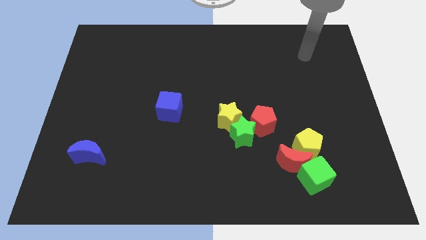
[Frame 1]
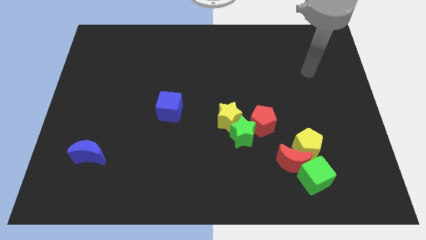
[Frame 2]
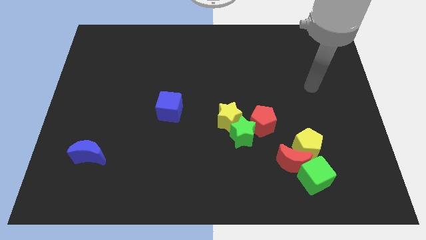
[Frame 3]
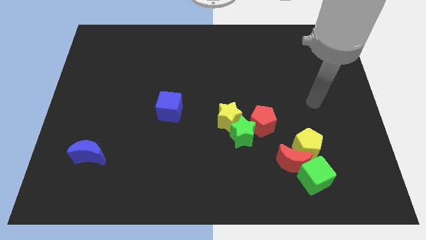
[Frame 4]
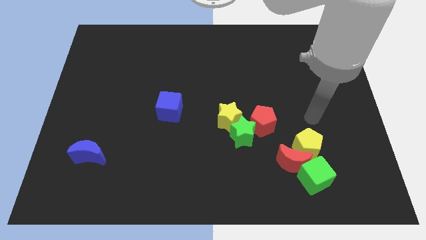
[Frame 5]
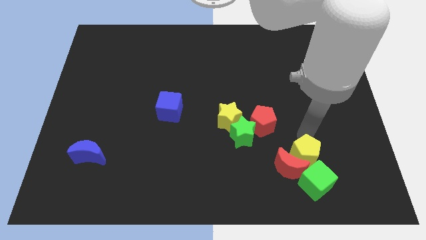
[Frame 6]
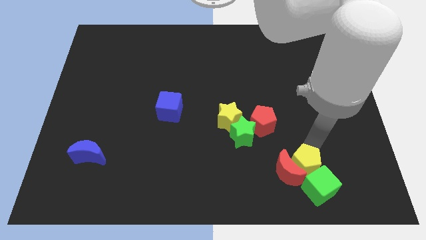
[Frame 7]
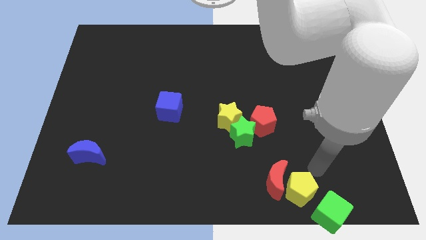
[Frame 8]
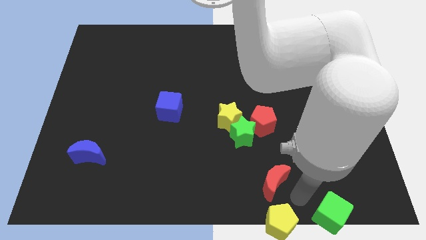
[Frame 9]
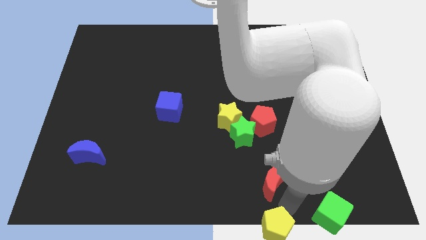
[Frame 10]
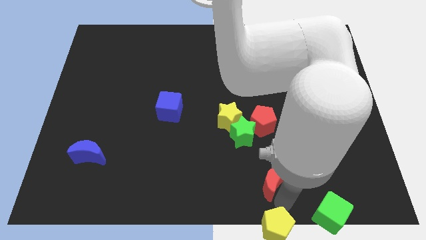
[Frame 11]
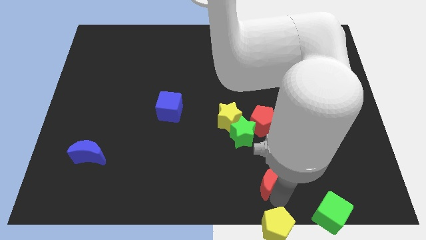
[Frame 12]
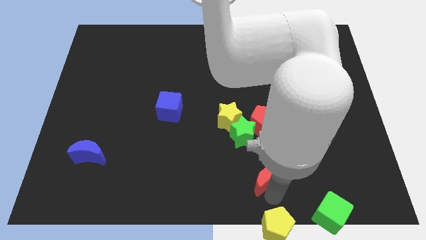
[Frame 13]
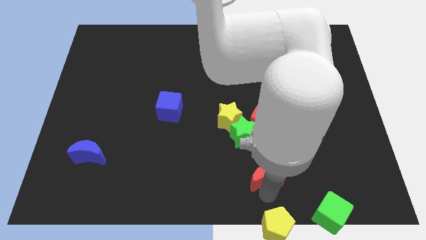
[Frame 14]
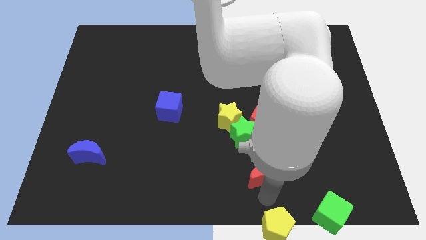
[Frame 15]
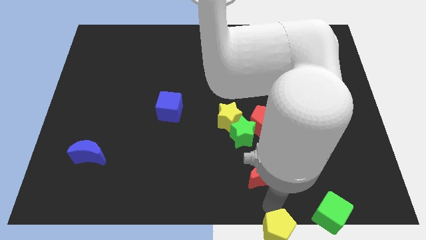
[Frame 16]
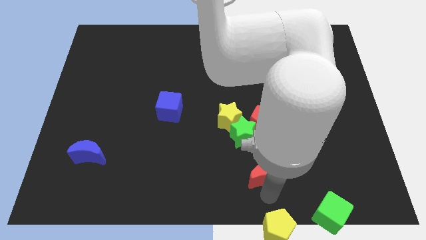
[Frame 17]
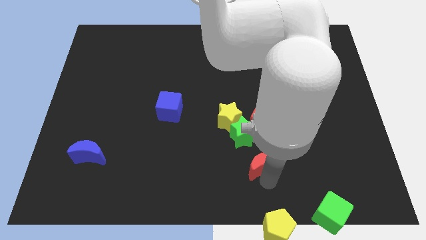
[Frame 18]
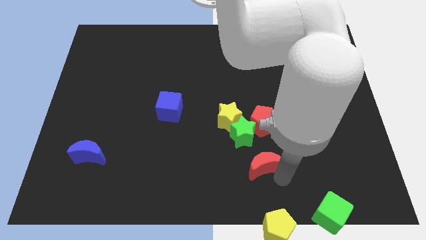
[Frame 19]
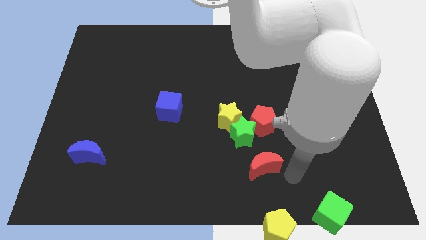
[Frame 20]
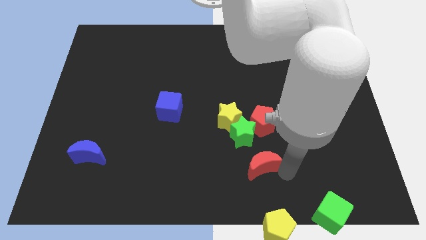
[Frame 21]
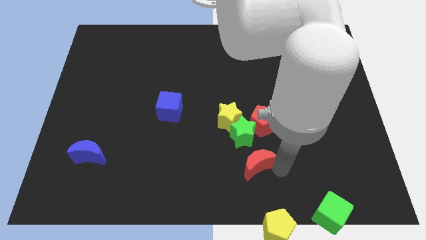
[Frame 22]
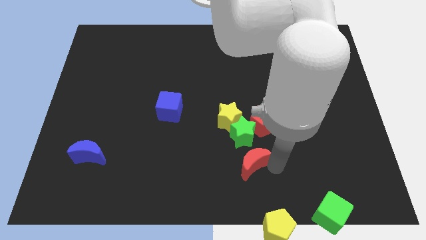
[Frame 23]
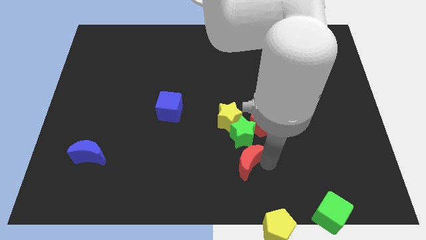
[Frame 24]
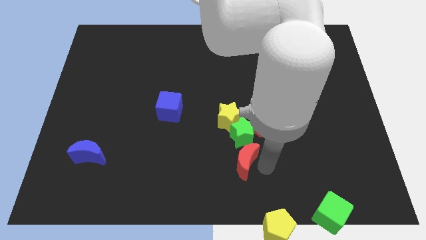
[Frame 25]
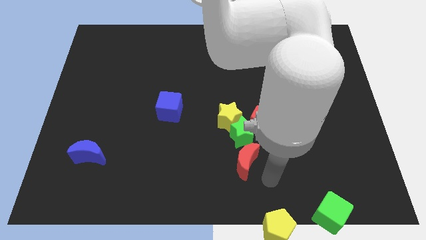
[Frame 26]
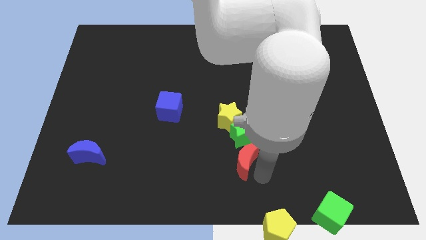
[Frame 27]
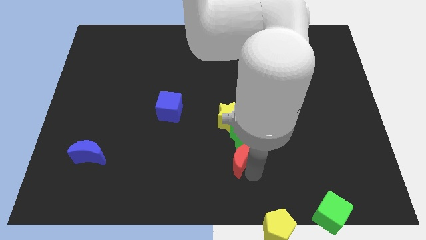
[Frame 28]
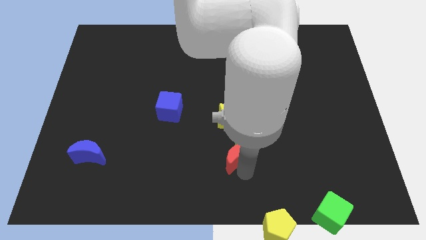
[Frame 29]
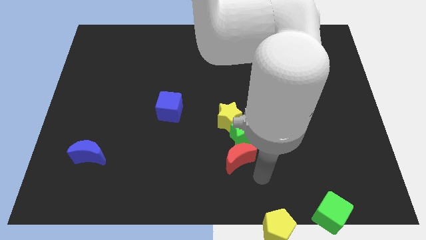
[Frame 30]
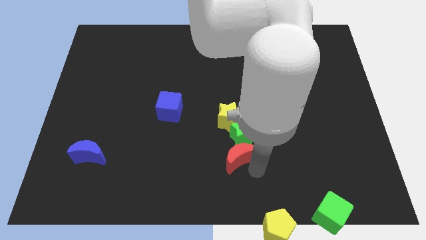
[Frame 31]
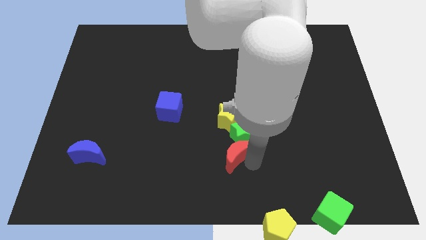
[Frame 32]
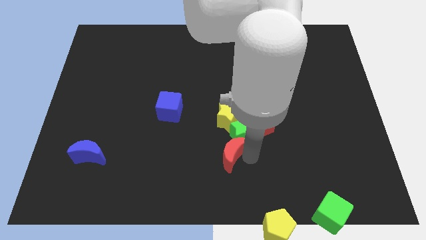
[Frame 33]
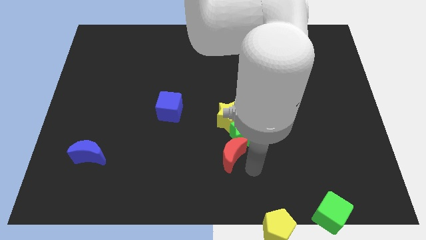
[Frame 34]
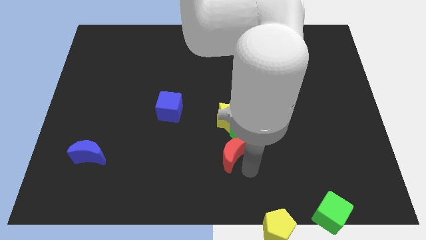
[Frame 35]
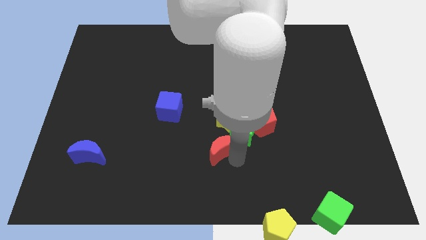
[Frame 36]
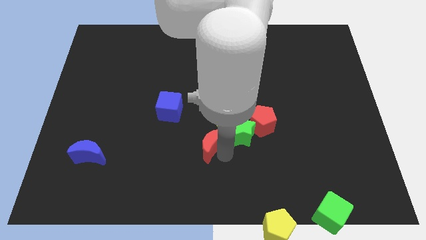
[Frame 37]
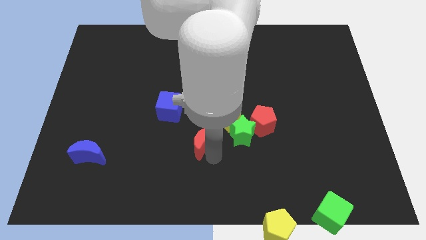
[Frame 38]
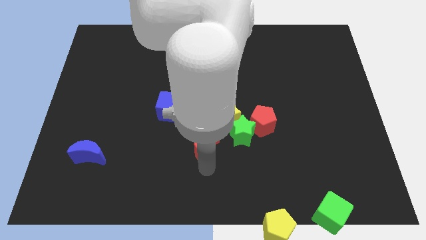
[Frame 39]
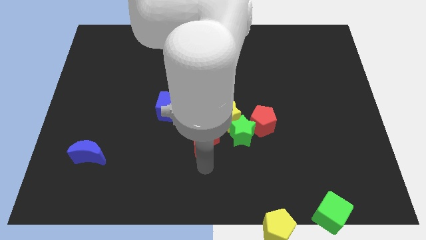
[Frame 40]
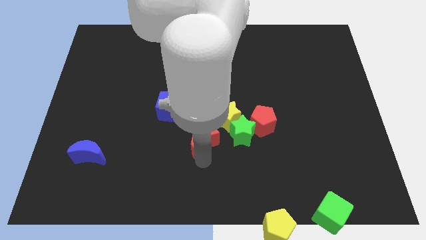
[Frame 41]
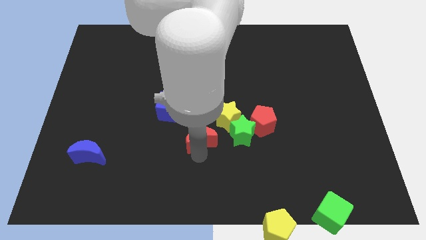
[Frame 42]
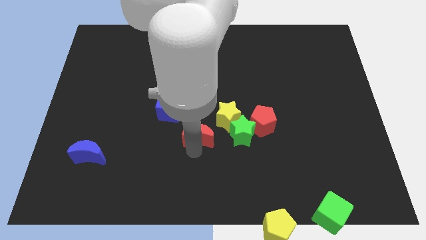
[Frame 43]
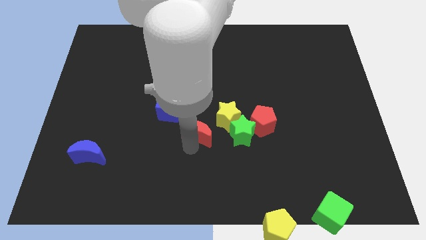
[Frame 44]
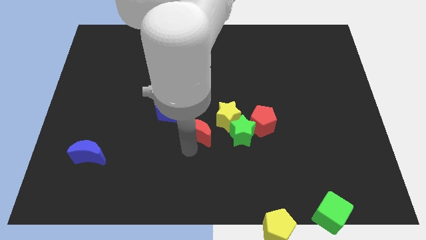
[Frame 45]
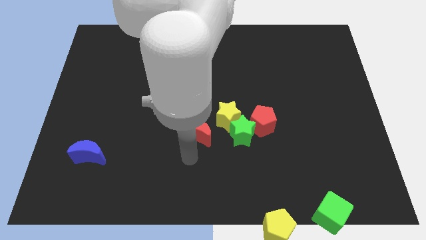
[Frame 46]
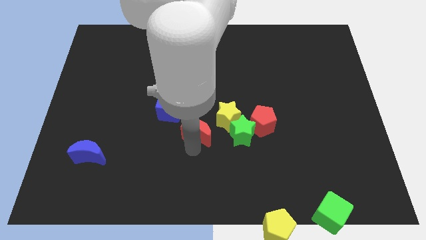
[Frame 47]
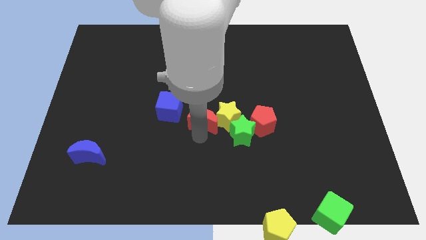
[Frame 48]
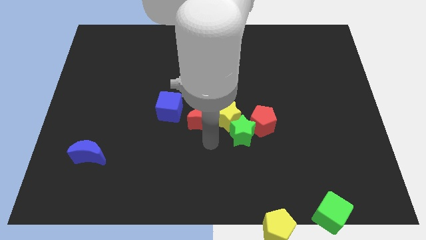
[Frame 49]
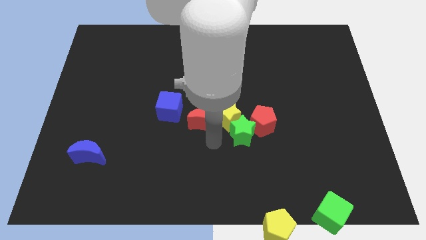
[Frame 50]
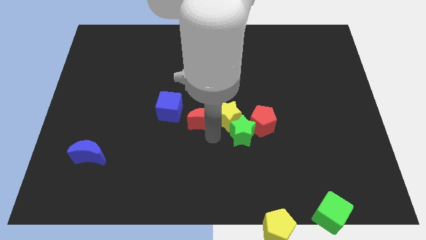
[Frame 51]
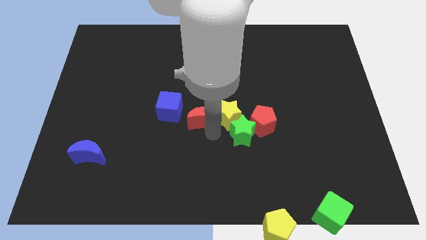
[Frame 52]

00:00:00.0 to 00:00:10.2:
push the red moon upwards and then to the left

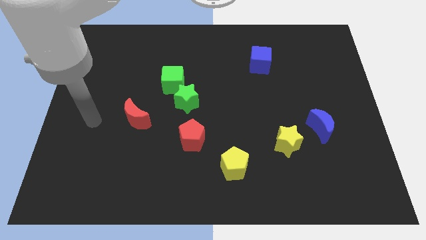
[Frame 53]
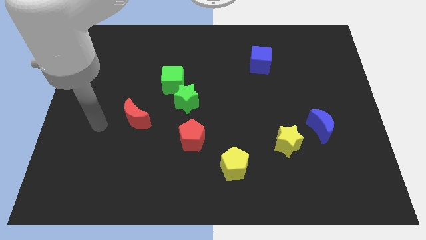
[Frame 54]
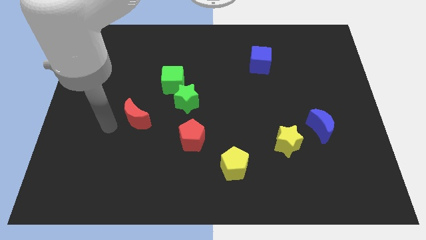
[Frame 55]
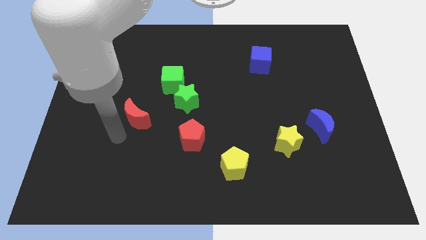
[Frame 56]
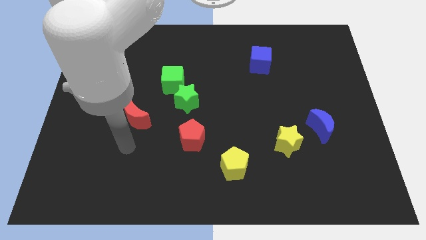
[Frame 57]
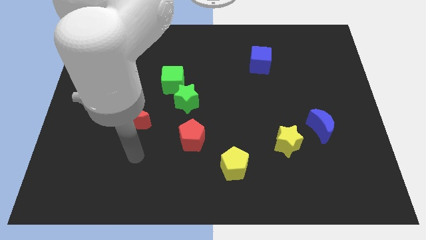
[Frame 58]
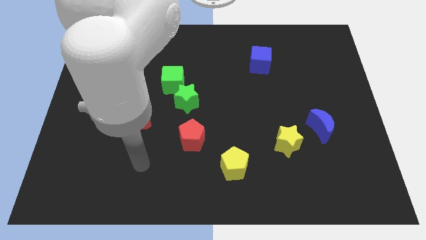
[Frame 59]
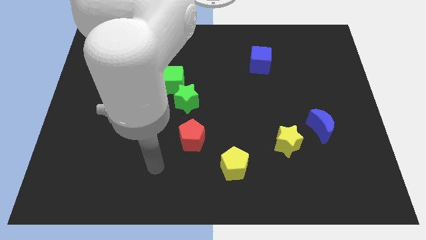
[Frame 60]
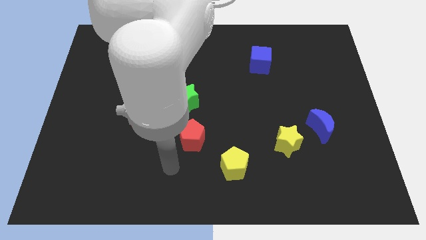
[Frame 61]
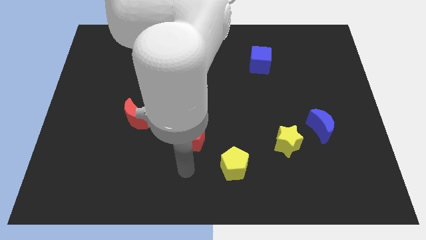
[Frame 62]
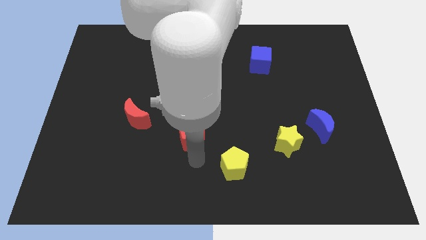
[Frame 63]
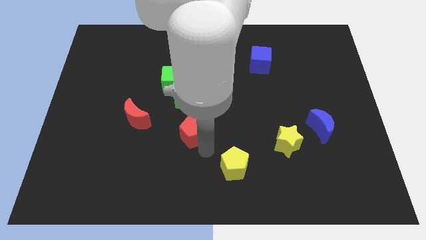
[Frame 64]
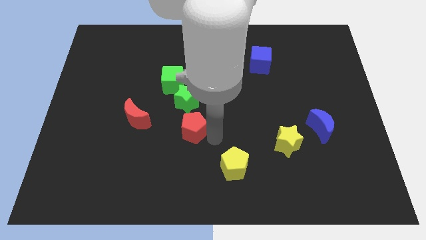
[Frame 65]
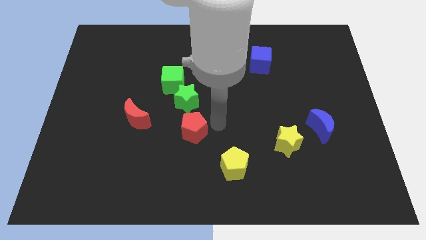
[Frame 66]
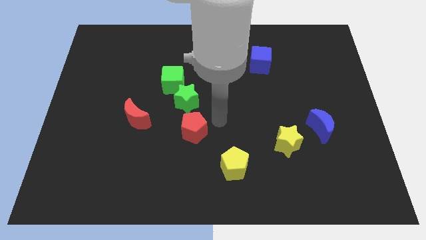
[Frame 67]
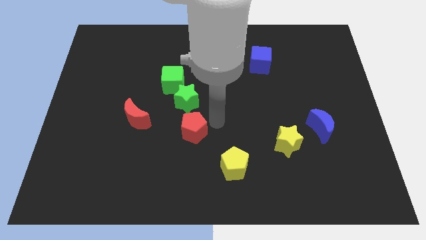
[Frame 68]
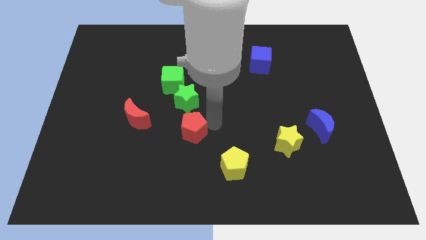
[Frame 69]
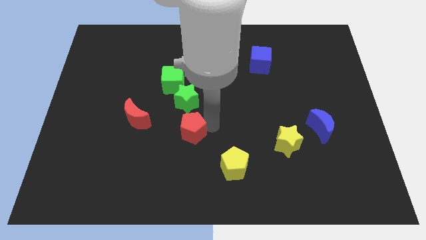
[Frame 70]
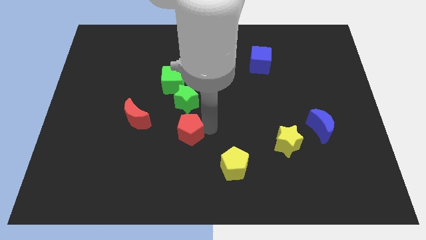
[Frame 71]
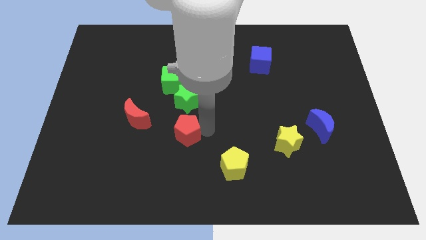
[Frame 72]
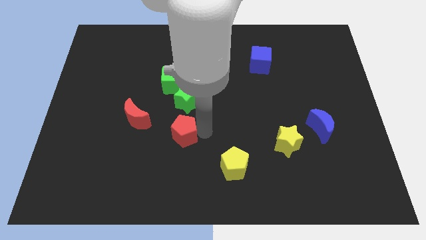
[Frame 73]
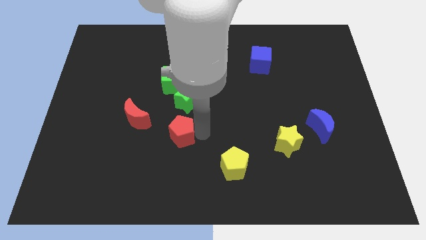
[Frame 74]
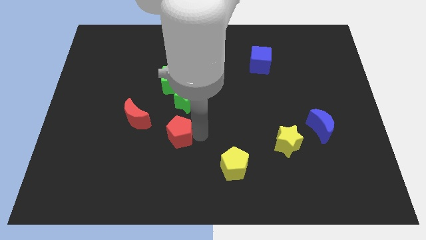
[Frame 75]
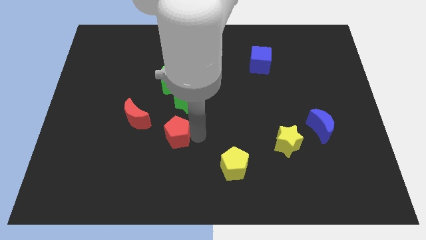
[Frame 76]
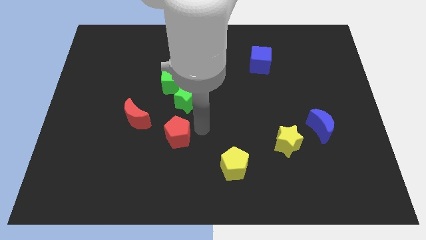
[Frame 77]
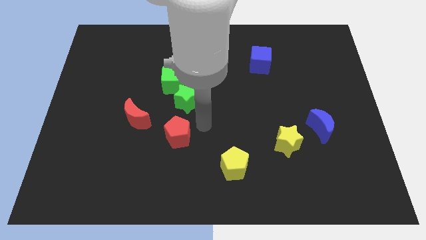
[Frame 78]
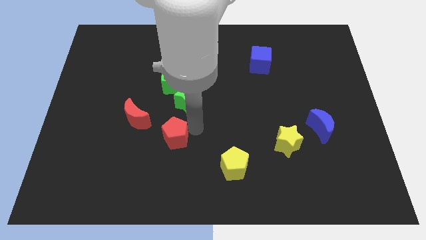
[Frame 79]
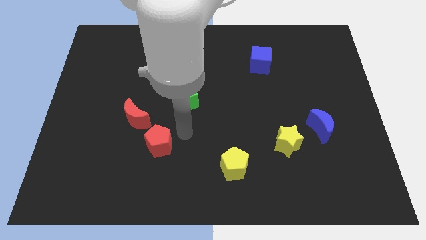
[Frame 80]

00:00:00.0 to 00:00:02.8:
push the red pentagon left somewhat
